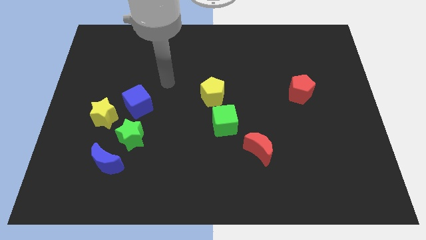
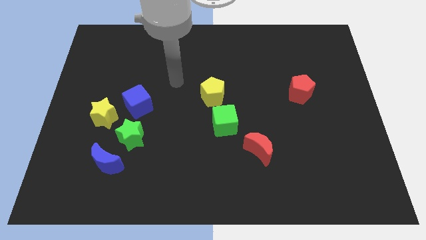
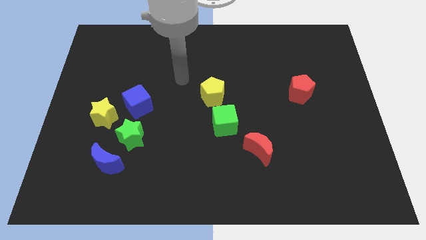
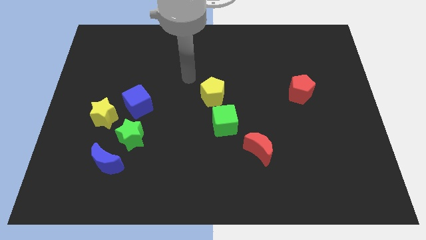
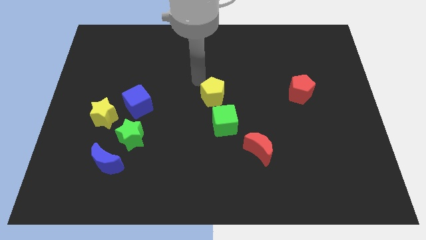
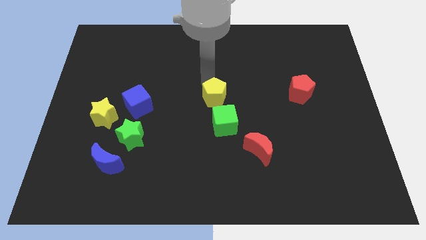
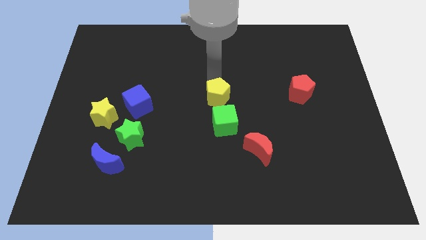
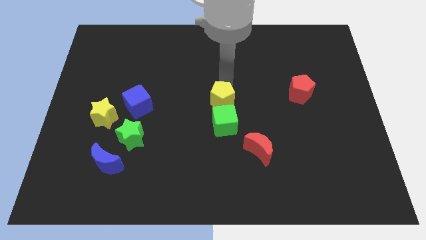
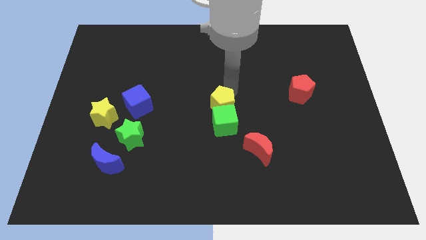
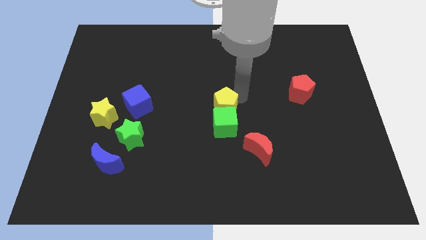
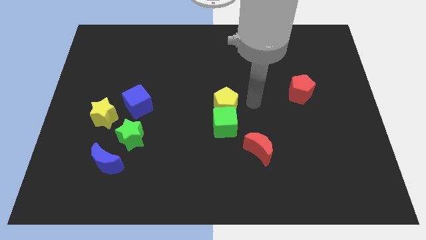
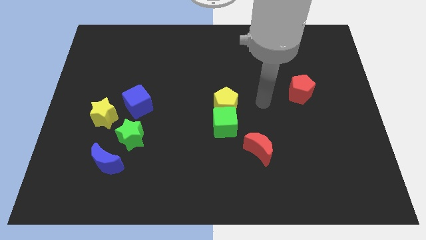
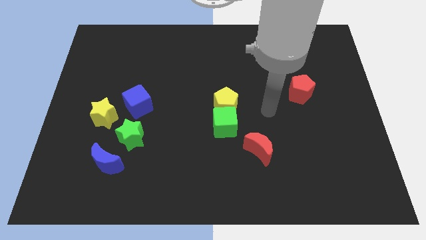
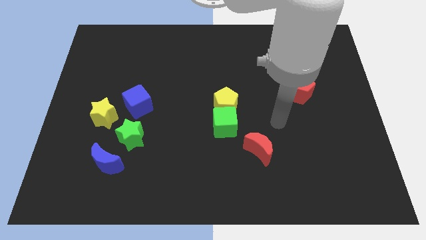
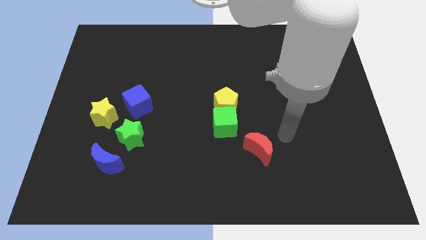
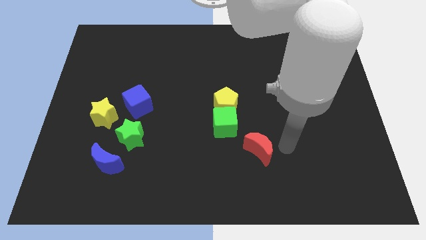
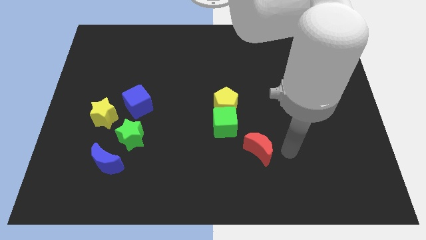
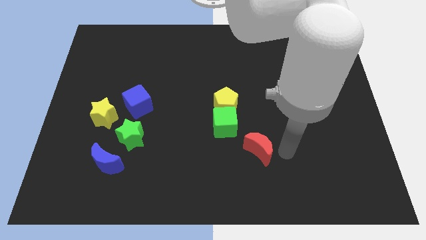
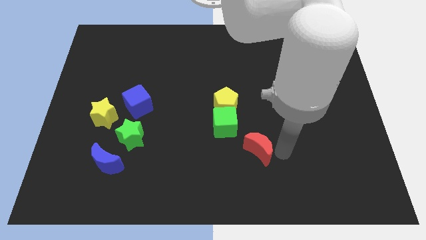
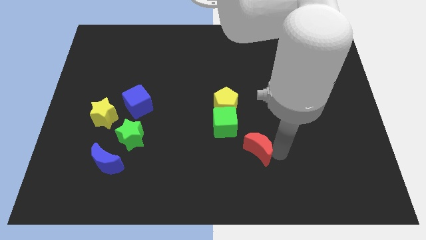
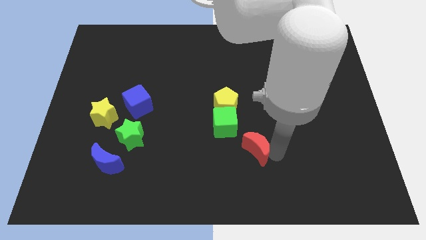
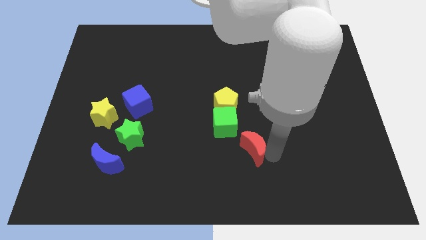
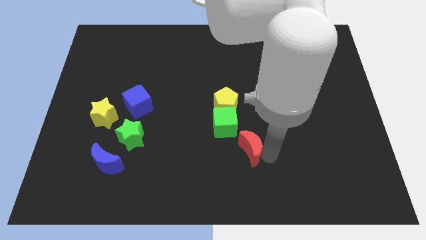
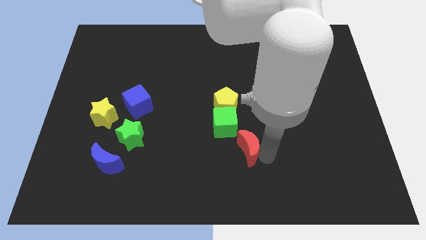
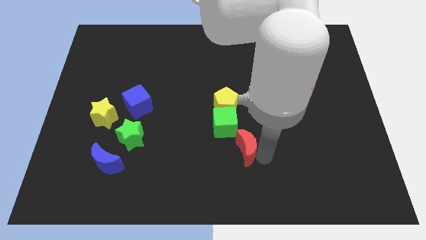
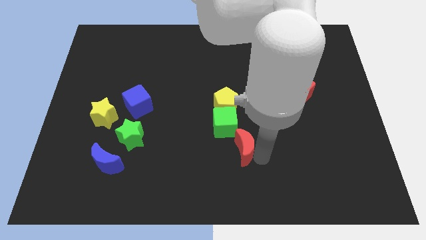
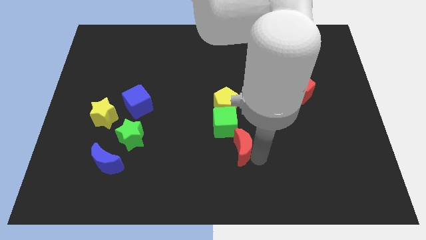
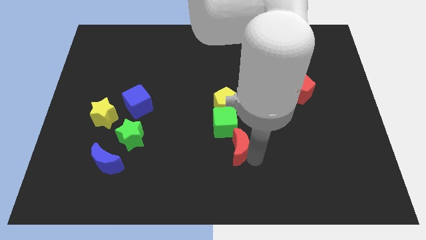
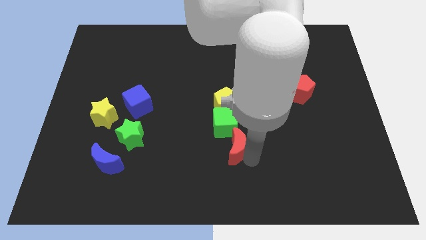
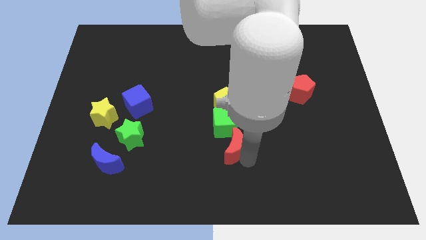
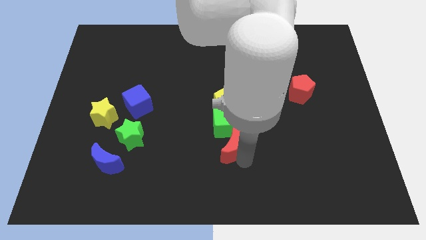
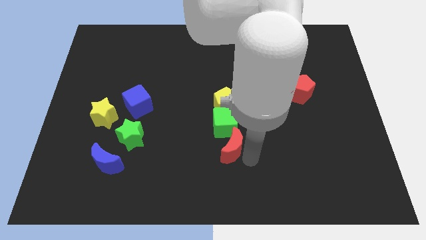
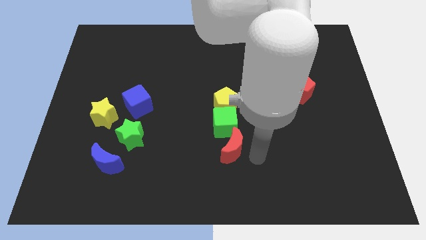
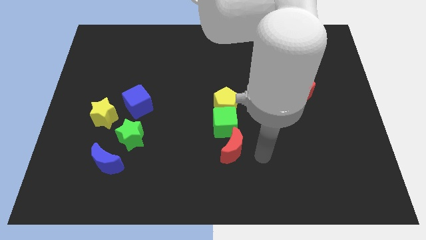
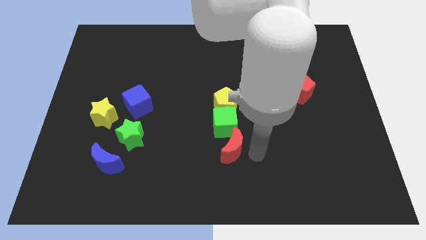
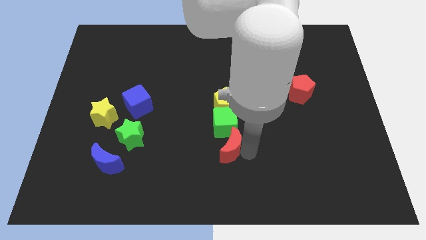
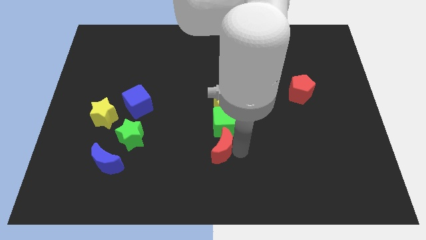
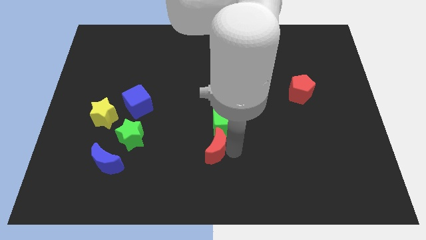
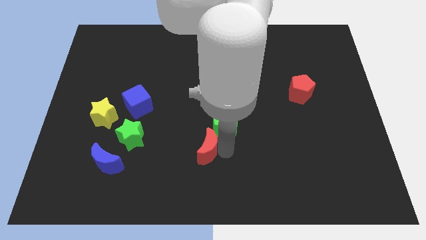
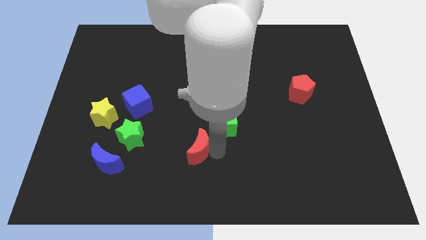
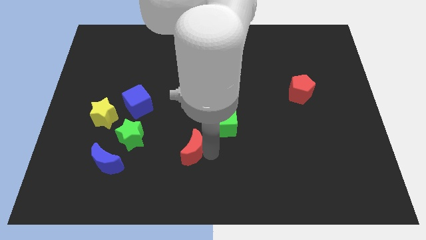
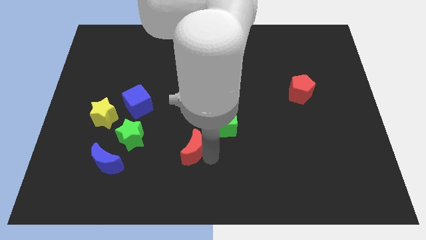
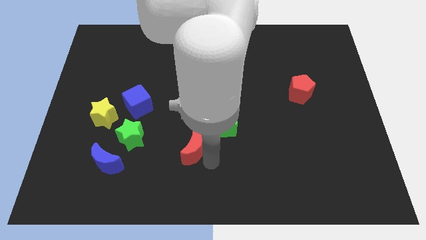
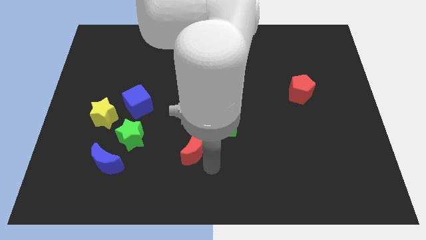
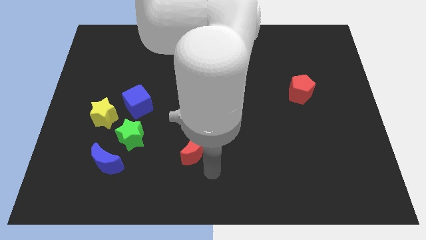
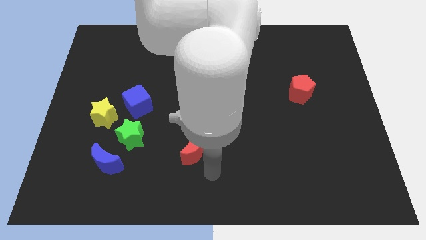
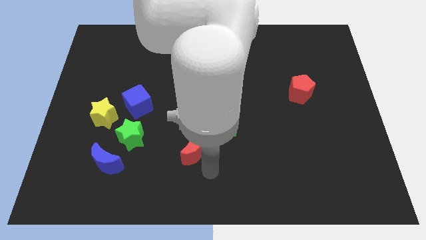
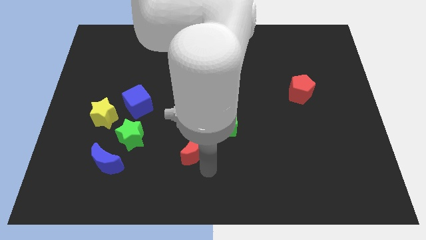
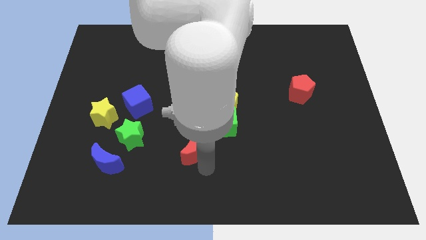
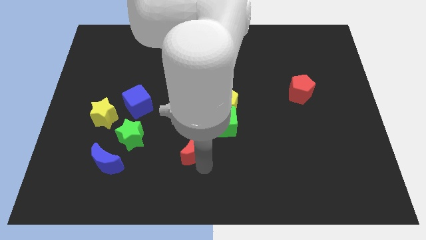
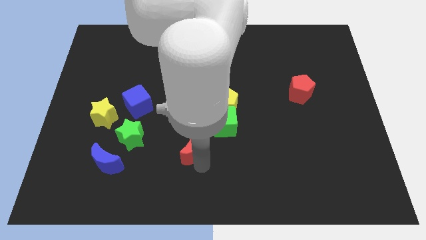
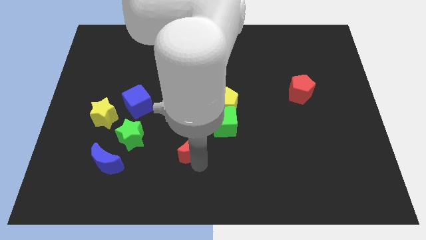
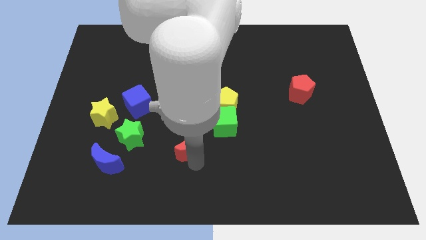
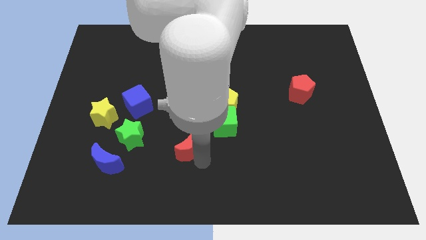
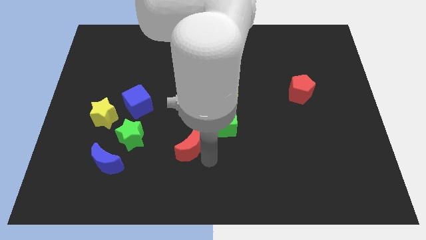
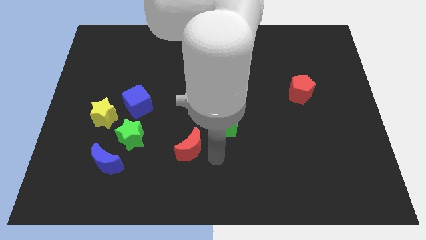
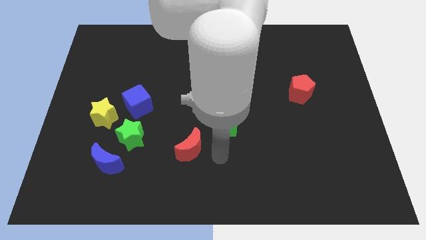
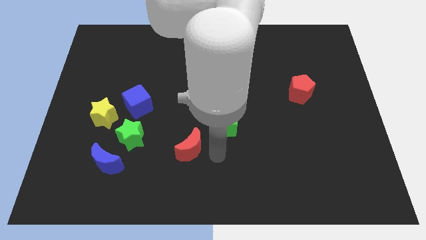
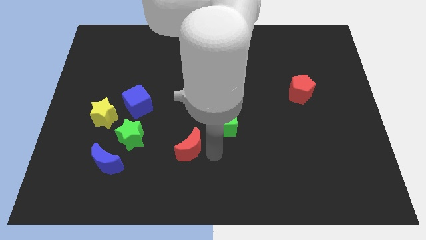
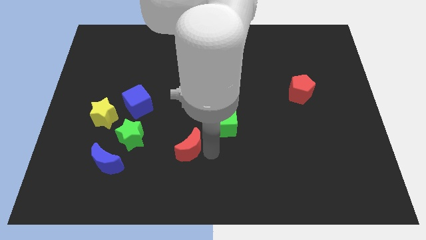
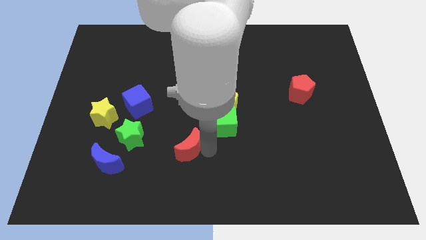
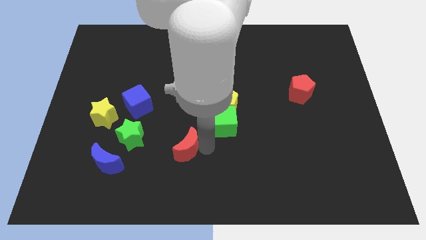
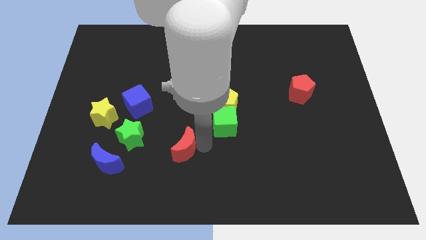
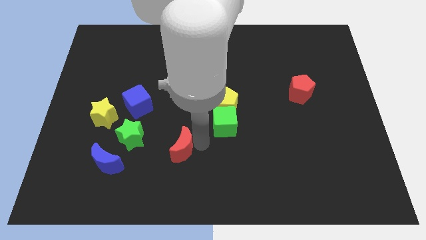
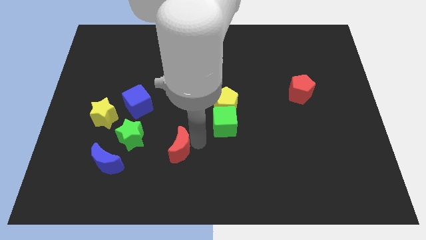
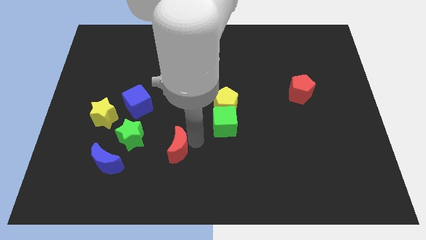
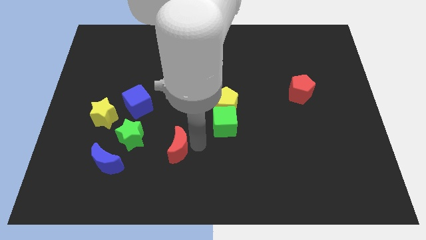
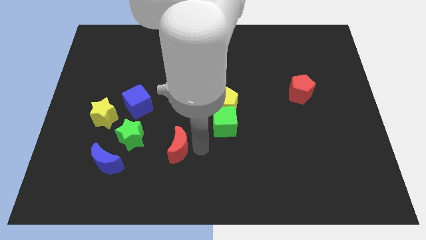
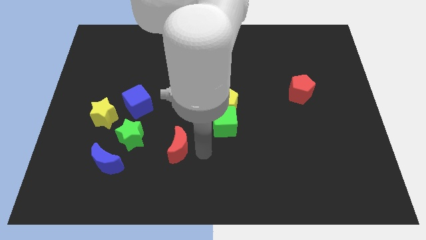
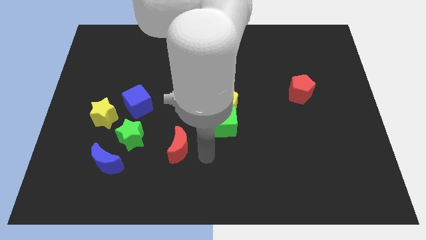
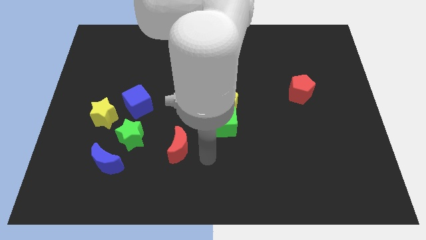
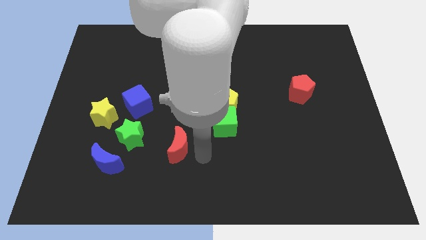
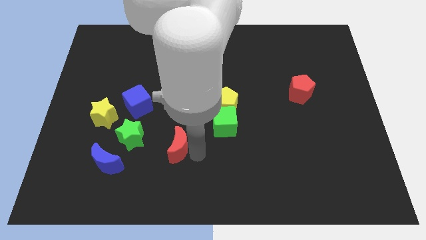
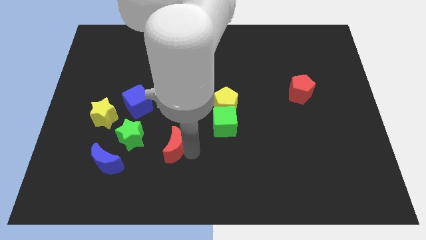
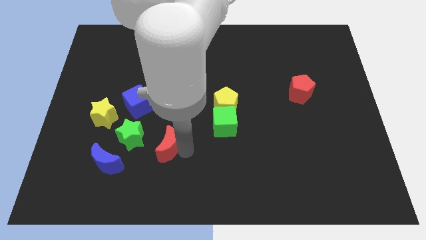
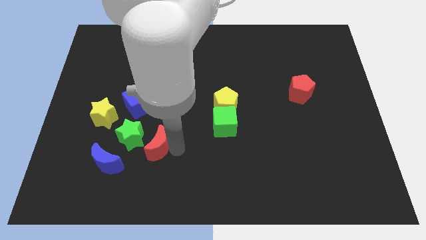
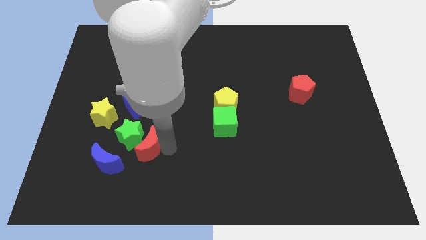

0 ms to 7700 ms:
move the red moon close to the green star
